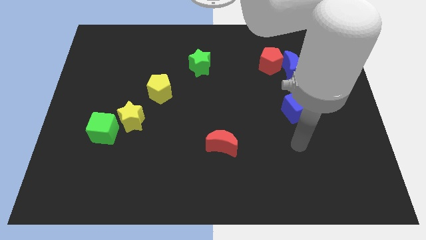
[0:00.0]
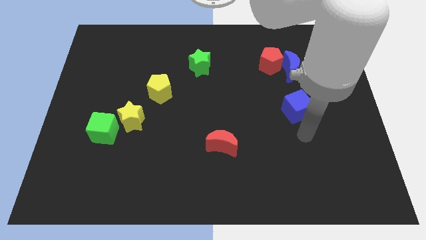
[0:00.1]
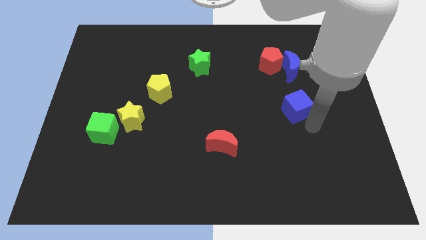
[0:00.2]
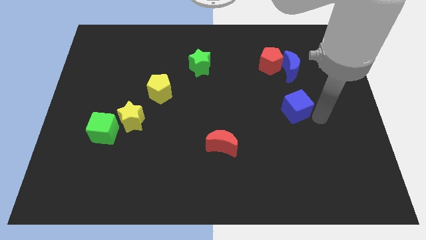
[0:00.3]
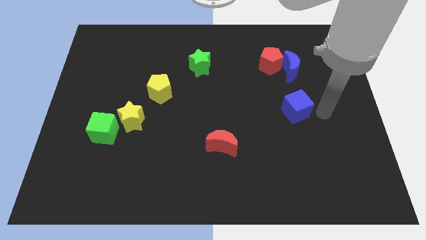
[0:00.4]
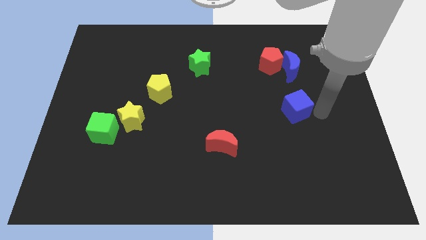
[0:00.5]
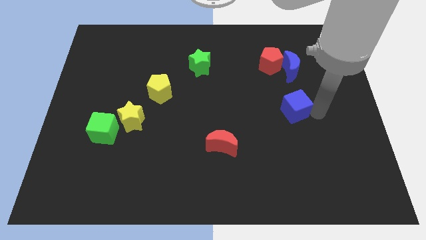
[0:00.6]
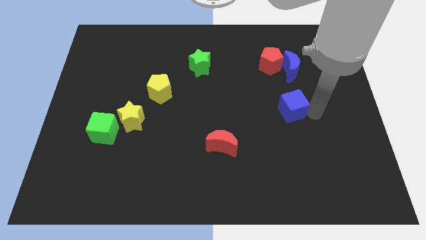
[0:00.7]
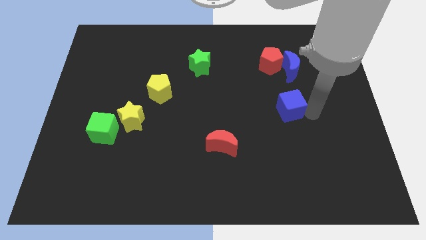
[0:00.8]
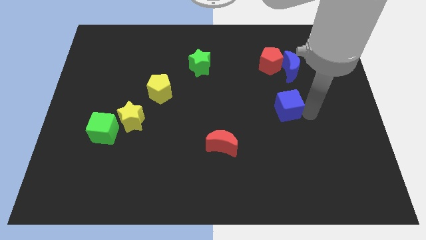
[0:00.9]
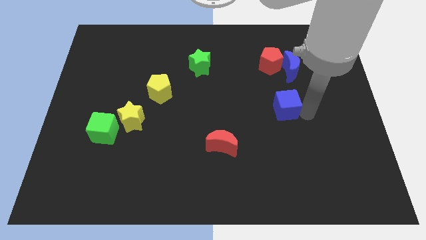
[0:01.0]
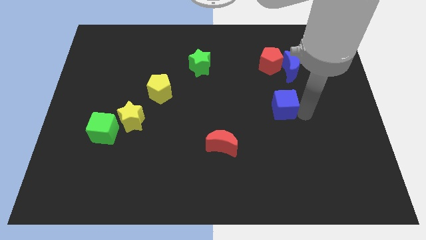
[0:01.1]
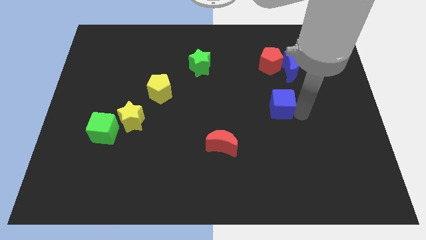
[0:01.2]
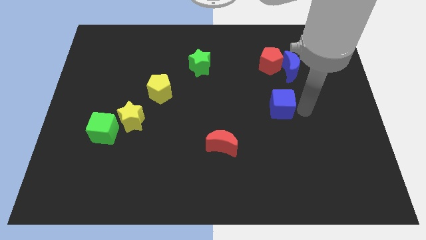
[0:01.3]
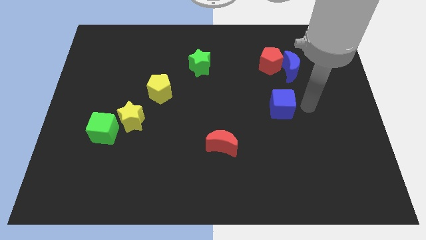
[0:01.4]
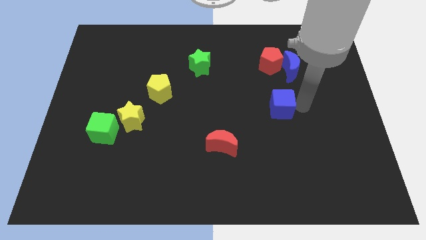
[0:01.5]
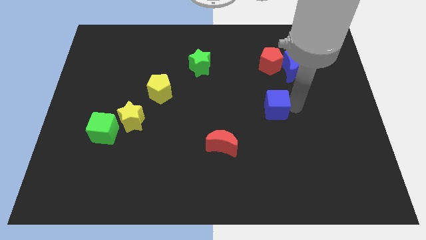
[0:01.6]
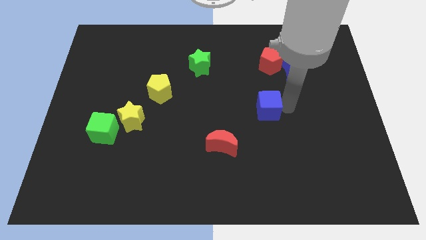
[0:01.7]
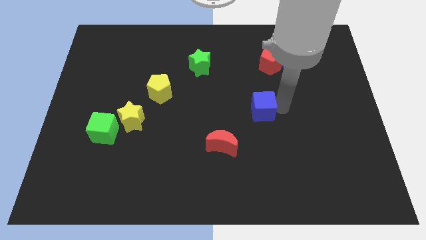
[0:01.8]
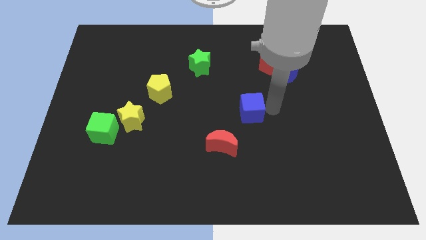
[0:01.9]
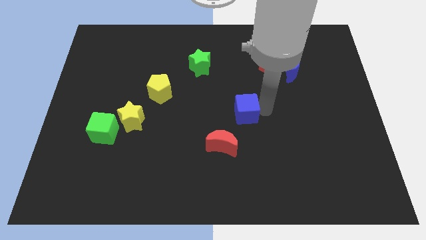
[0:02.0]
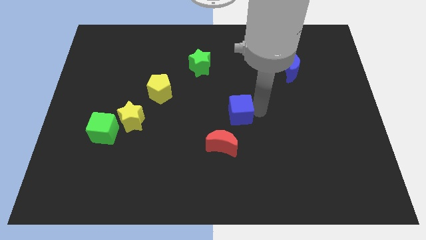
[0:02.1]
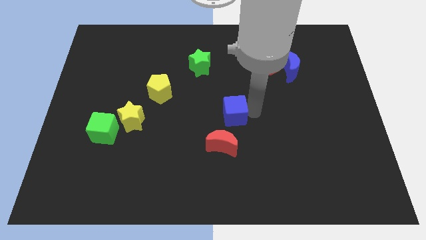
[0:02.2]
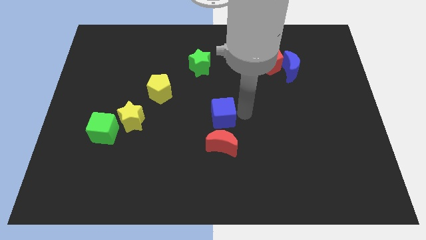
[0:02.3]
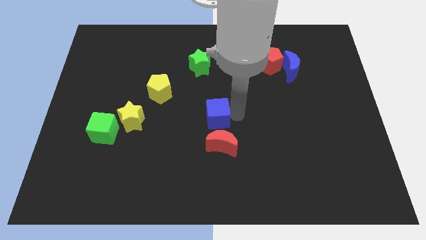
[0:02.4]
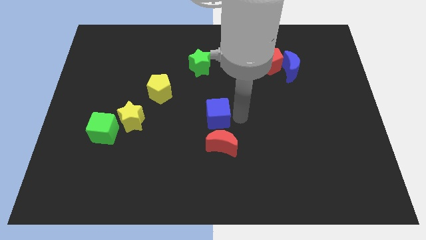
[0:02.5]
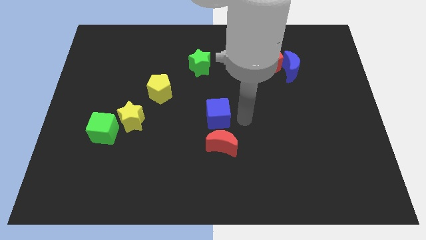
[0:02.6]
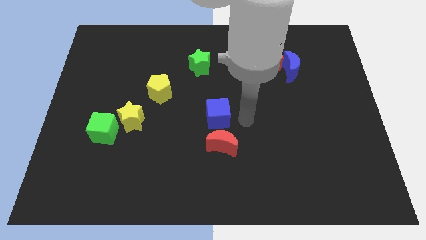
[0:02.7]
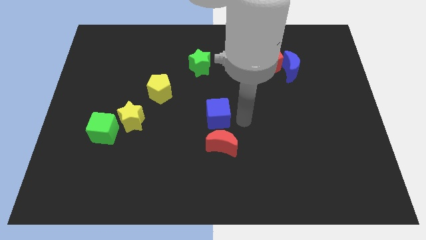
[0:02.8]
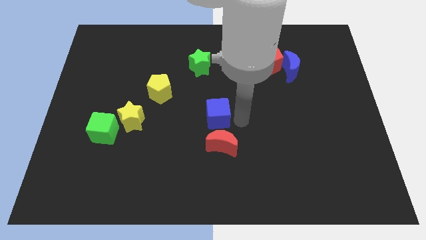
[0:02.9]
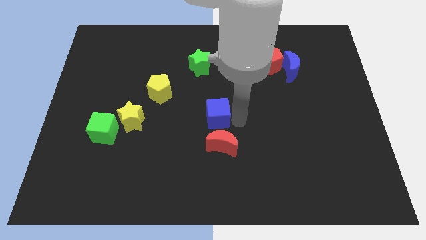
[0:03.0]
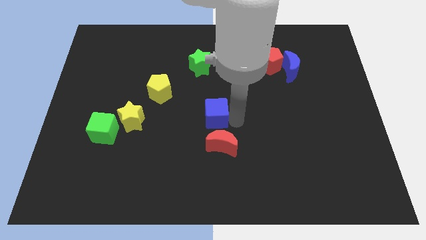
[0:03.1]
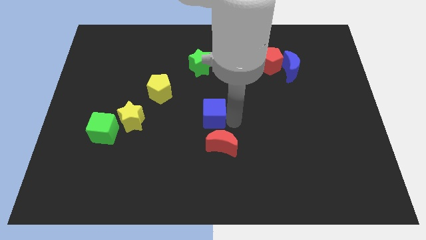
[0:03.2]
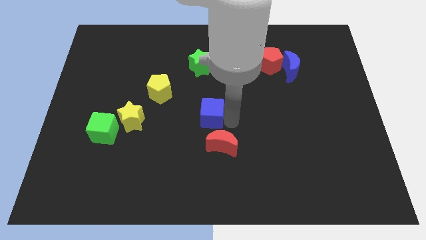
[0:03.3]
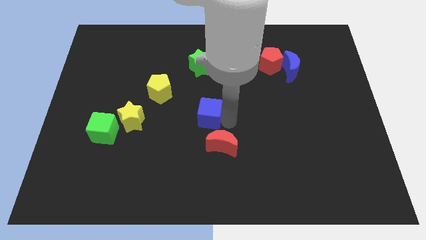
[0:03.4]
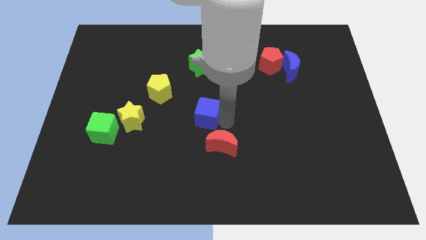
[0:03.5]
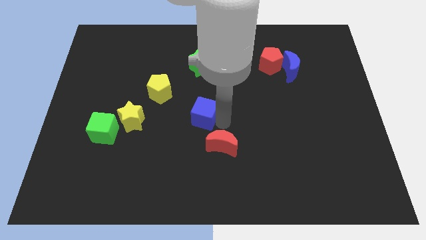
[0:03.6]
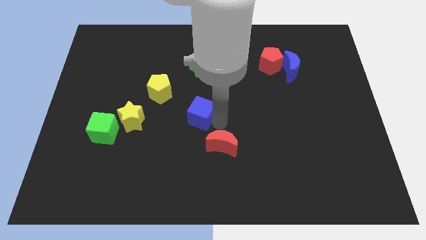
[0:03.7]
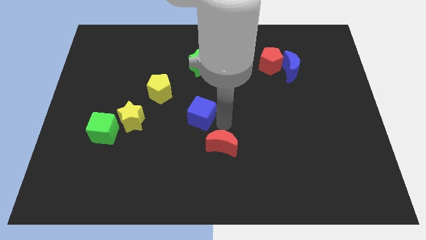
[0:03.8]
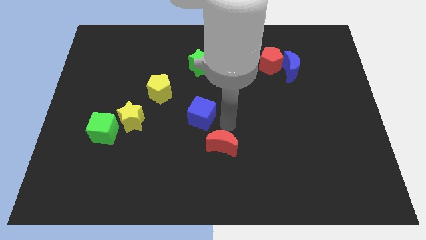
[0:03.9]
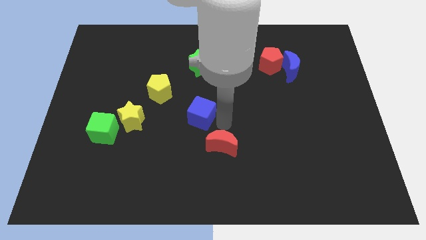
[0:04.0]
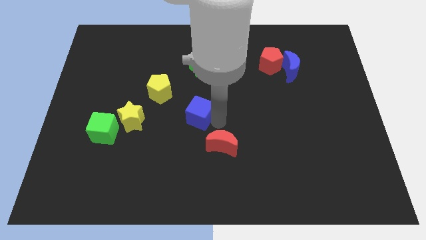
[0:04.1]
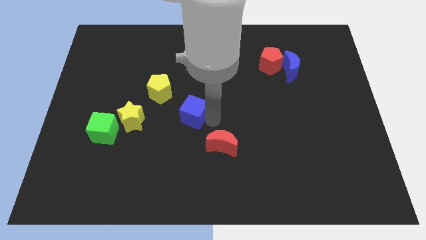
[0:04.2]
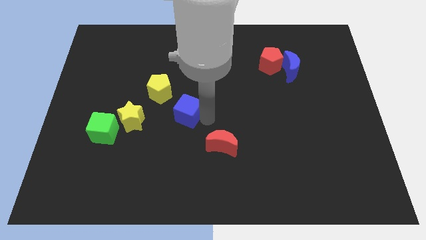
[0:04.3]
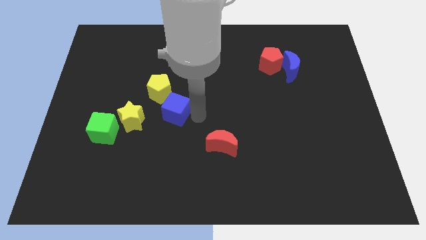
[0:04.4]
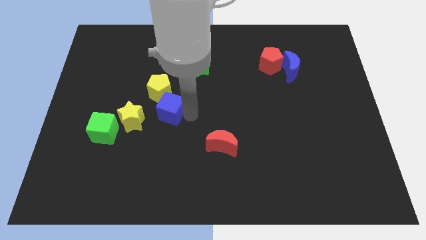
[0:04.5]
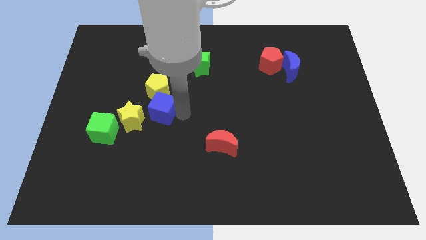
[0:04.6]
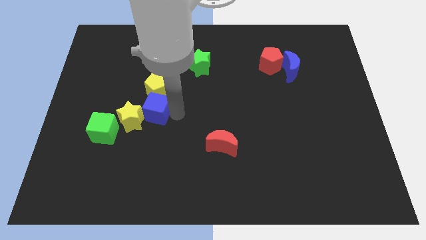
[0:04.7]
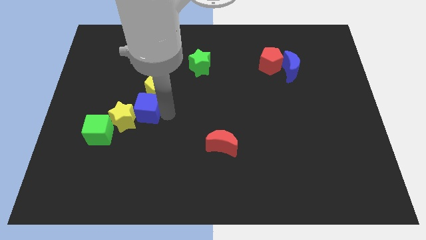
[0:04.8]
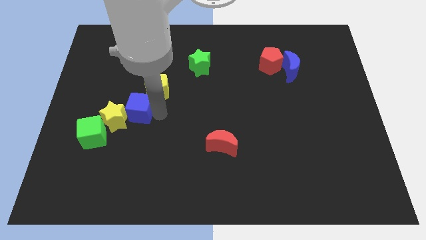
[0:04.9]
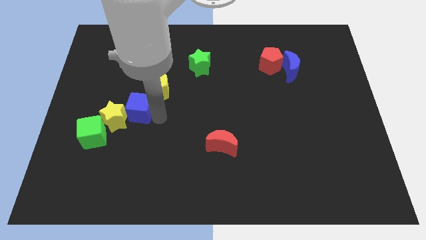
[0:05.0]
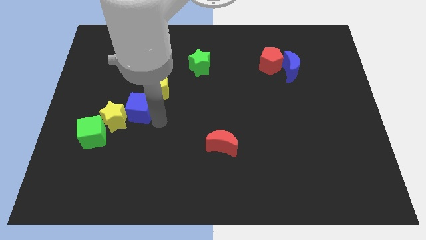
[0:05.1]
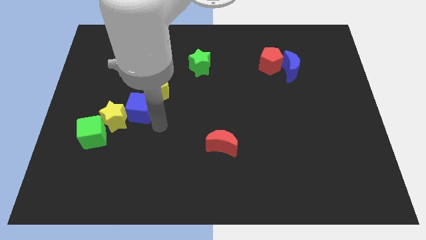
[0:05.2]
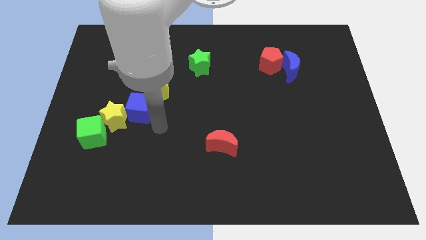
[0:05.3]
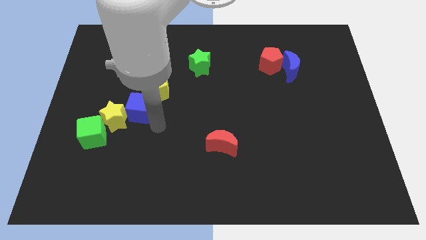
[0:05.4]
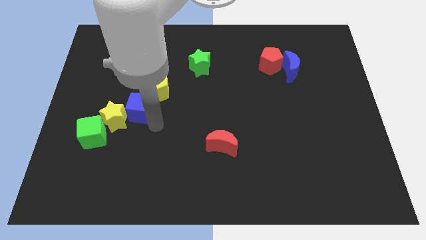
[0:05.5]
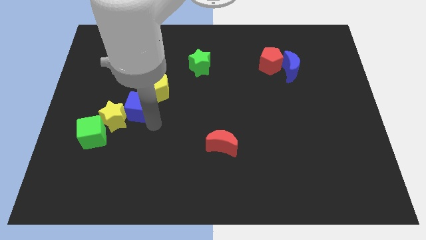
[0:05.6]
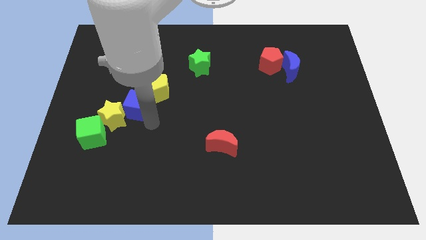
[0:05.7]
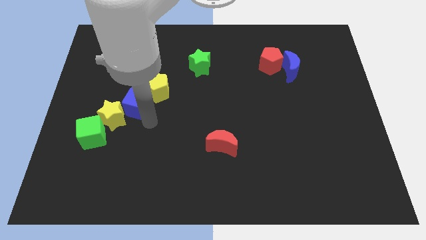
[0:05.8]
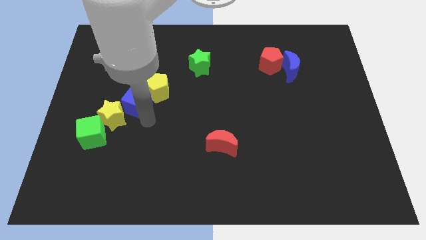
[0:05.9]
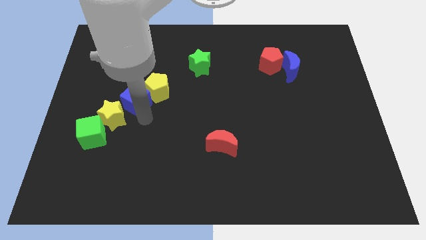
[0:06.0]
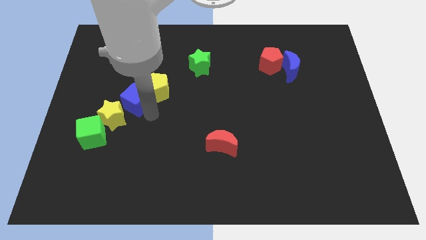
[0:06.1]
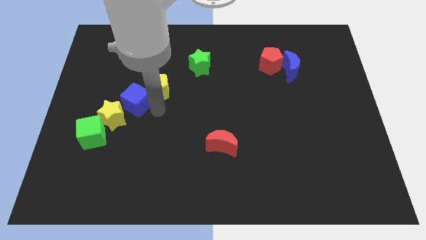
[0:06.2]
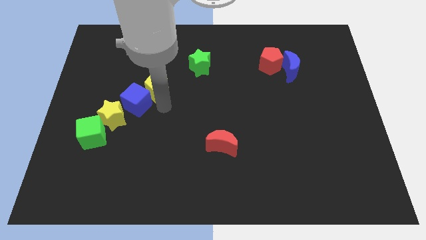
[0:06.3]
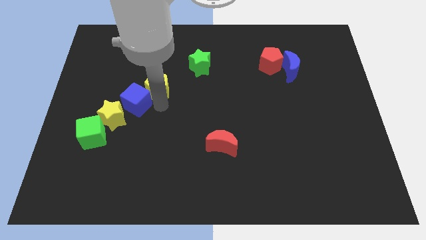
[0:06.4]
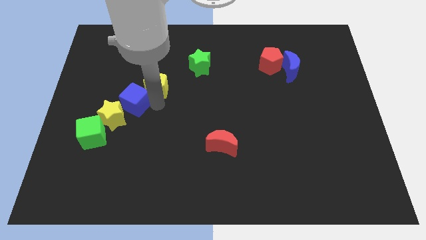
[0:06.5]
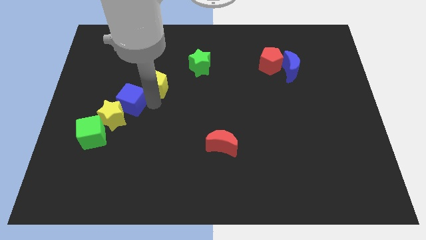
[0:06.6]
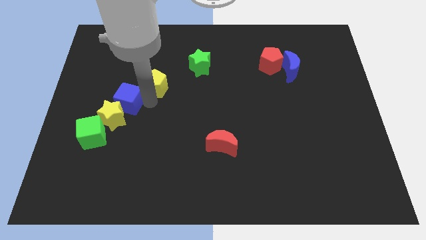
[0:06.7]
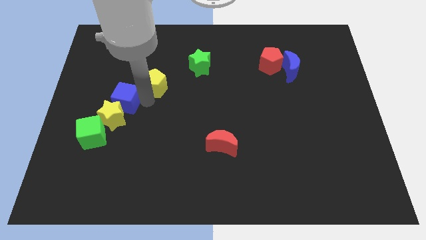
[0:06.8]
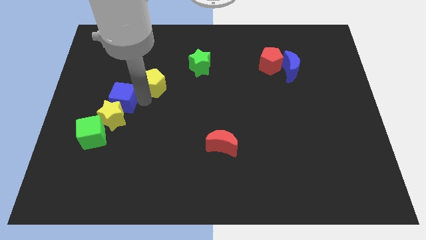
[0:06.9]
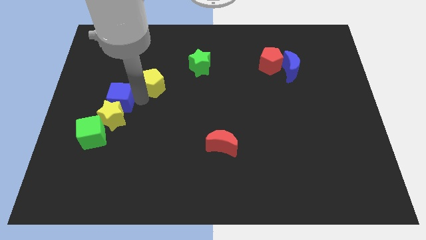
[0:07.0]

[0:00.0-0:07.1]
slide the blue cube to the top side of the green cube

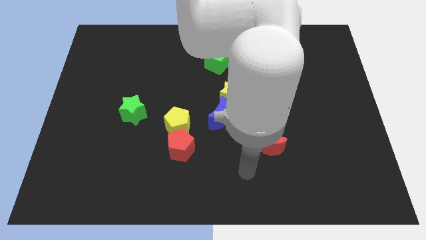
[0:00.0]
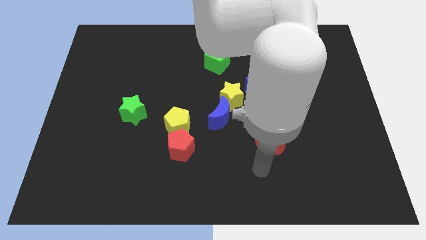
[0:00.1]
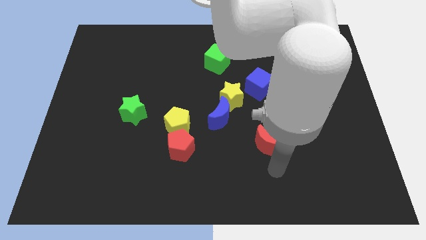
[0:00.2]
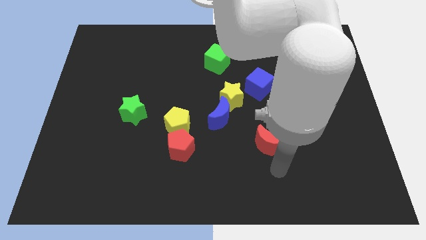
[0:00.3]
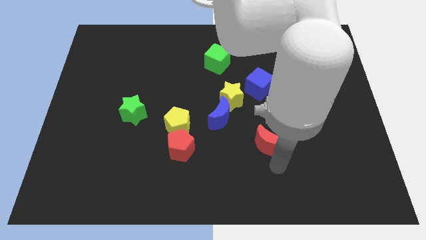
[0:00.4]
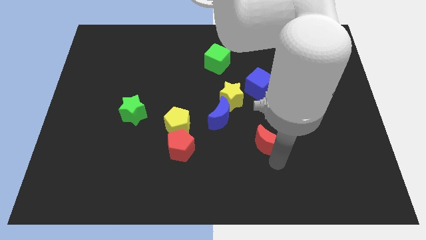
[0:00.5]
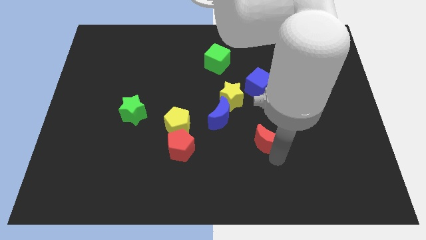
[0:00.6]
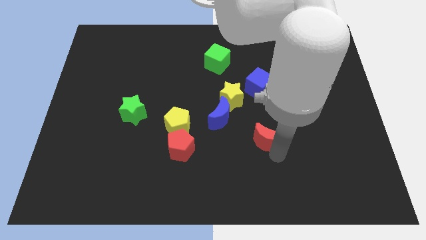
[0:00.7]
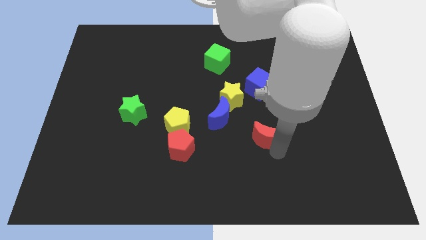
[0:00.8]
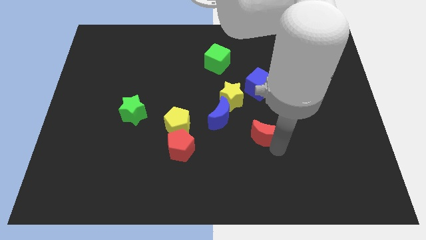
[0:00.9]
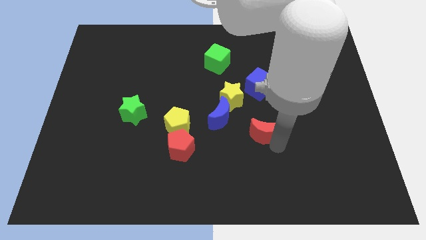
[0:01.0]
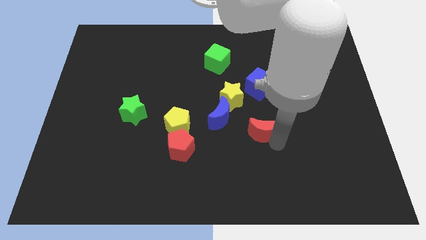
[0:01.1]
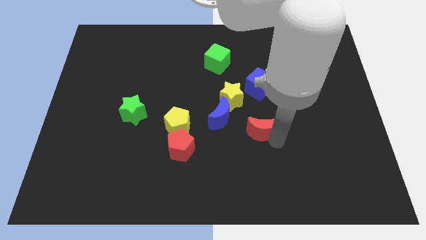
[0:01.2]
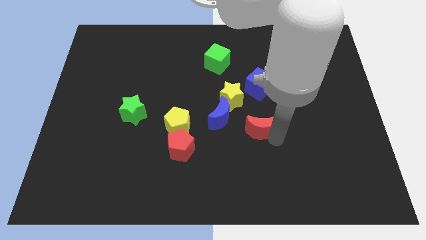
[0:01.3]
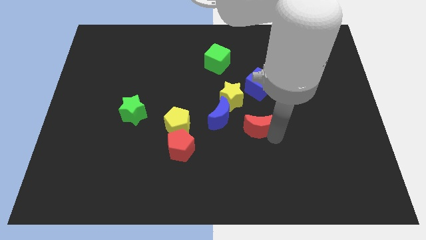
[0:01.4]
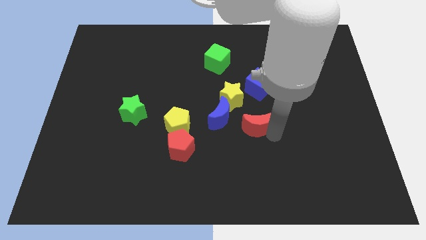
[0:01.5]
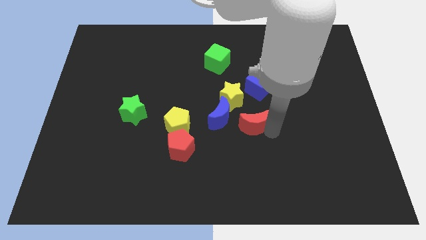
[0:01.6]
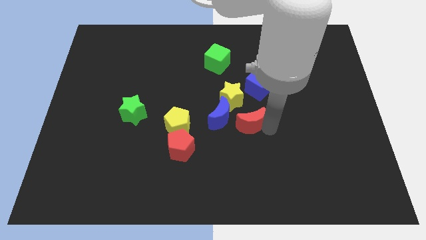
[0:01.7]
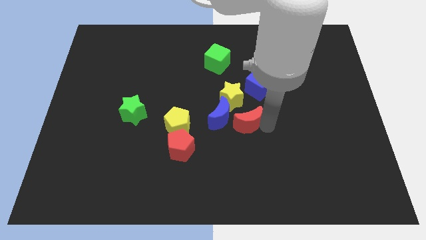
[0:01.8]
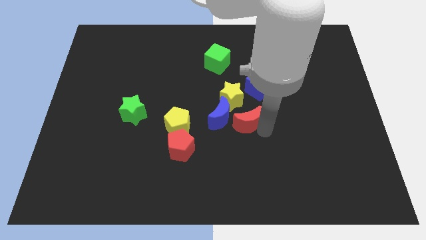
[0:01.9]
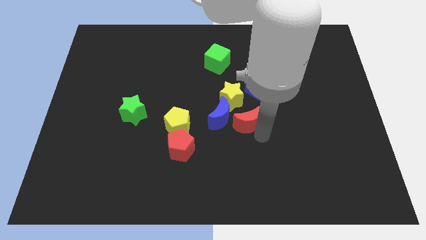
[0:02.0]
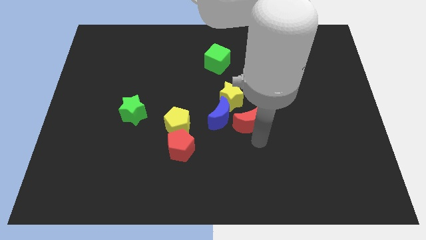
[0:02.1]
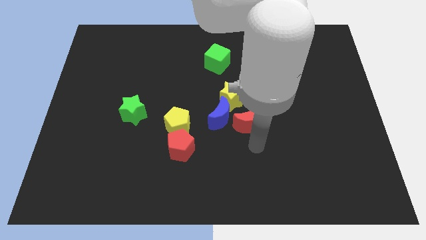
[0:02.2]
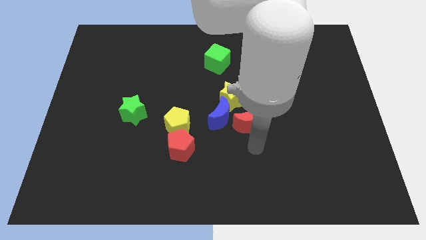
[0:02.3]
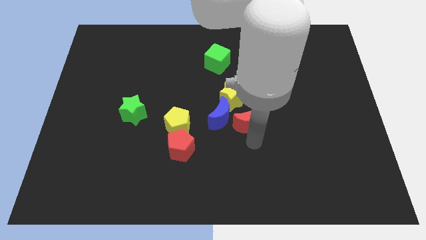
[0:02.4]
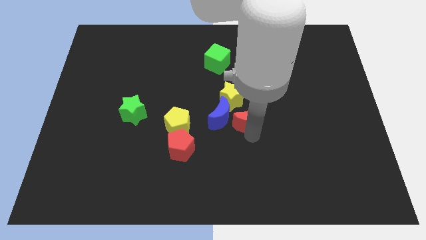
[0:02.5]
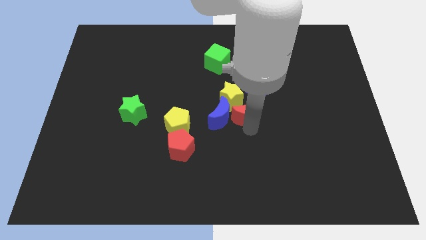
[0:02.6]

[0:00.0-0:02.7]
put the red moon to the top right side of the blue moon
